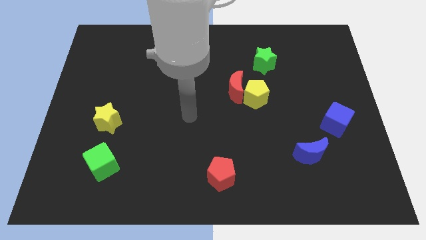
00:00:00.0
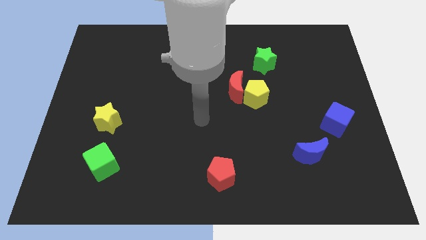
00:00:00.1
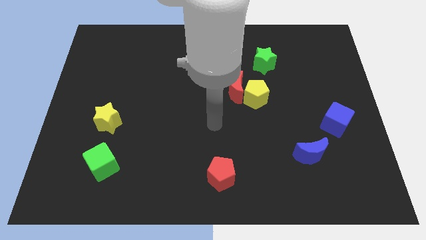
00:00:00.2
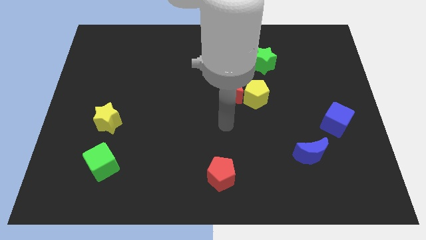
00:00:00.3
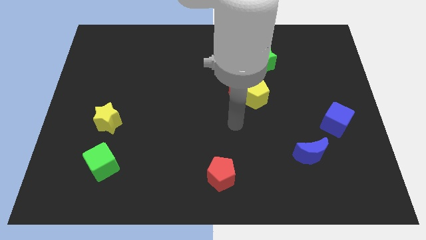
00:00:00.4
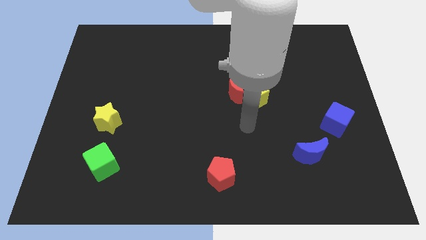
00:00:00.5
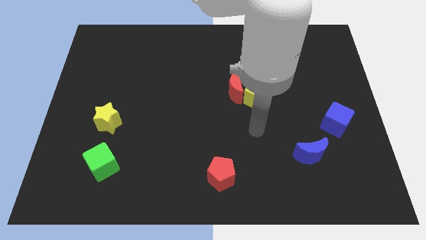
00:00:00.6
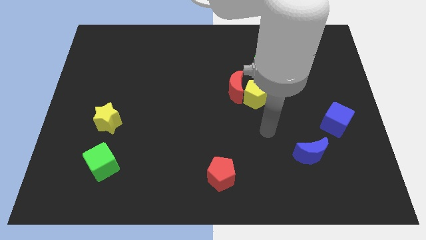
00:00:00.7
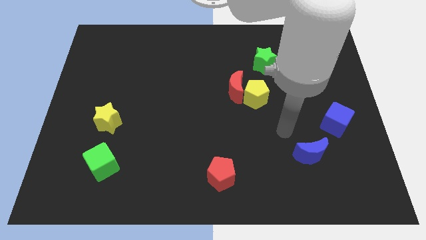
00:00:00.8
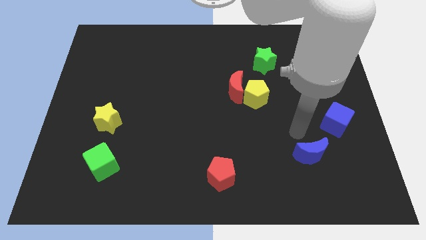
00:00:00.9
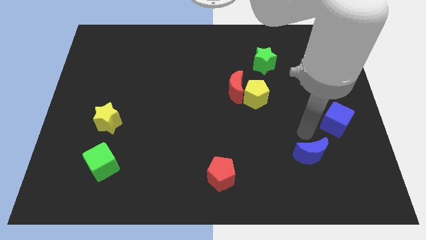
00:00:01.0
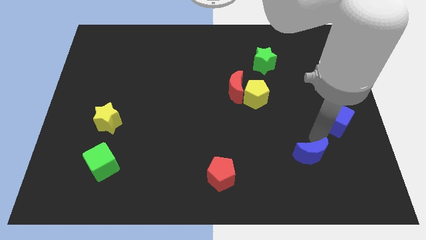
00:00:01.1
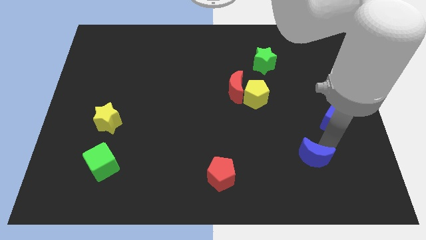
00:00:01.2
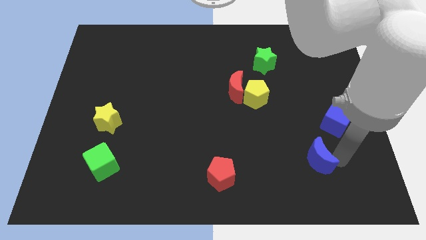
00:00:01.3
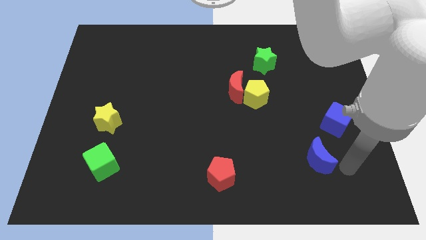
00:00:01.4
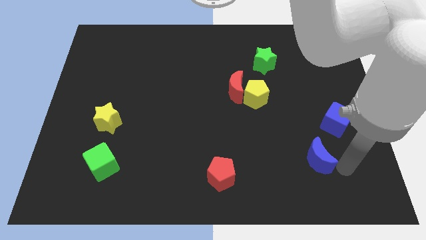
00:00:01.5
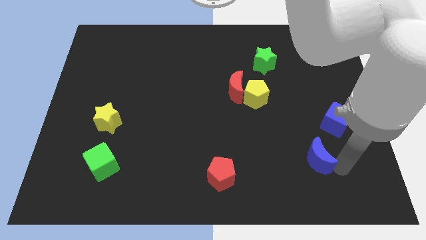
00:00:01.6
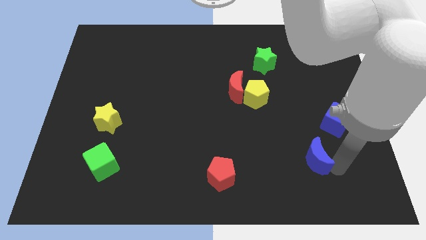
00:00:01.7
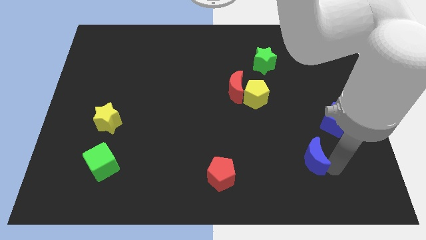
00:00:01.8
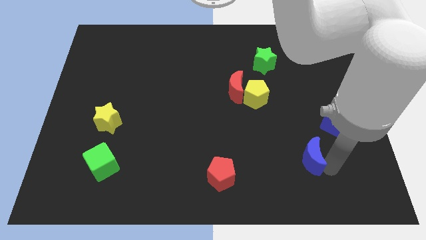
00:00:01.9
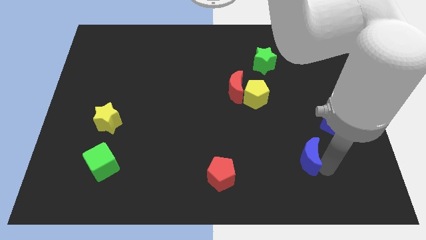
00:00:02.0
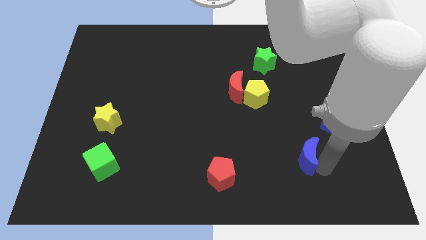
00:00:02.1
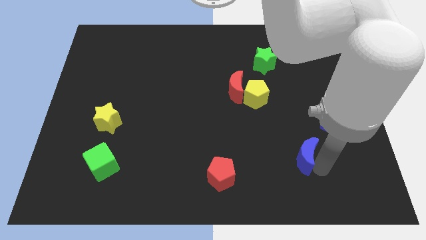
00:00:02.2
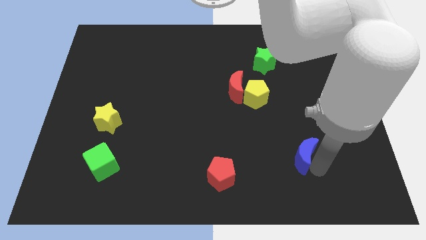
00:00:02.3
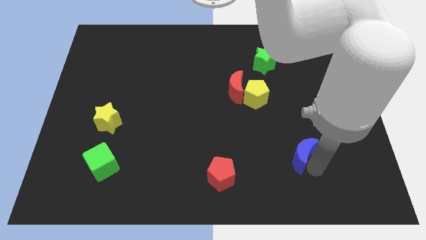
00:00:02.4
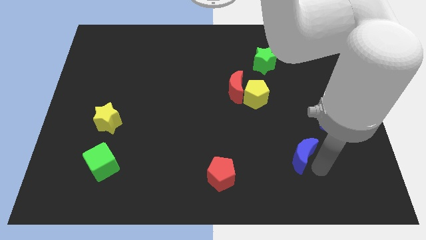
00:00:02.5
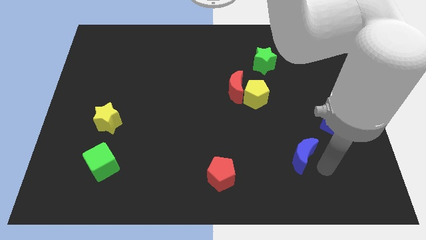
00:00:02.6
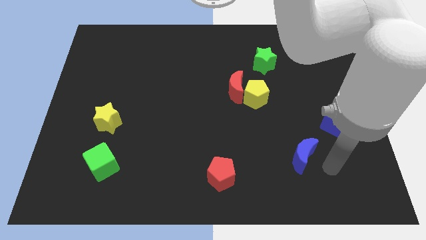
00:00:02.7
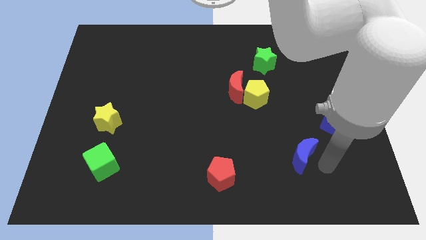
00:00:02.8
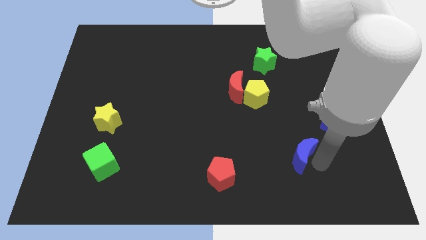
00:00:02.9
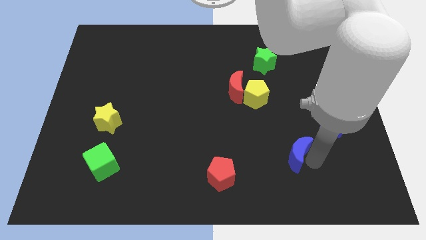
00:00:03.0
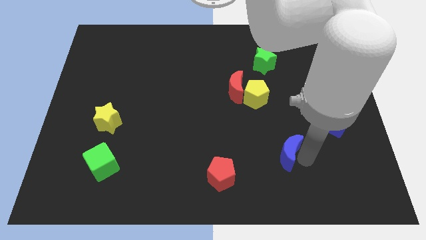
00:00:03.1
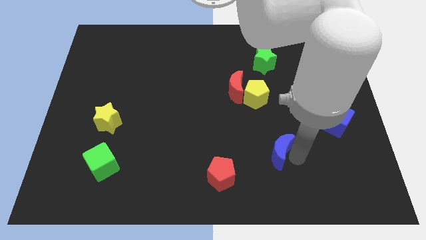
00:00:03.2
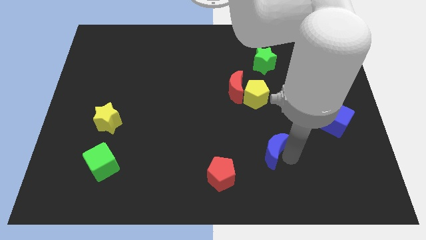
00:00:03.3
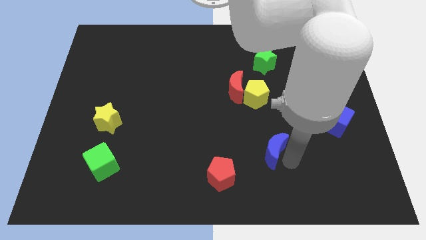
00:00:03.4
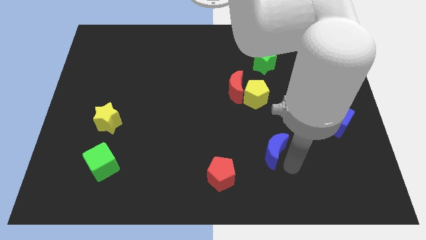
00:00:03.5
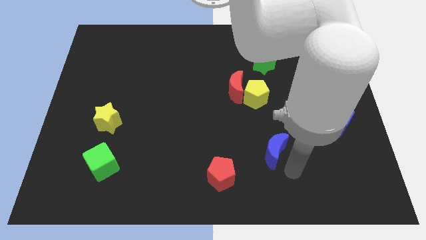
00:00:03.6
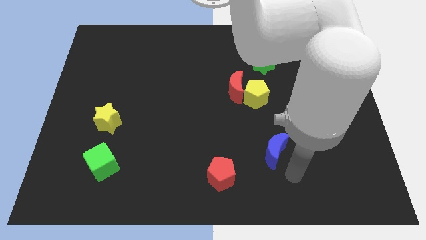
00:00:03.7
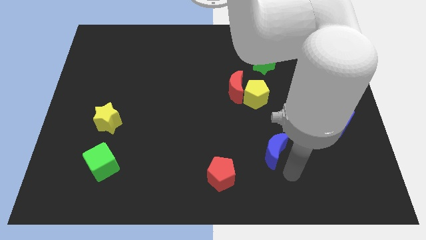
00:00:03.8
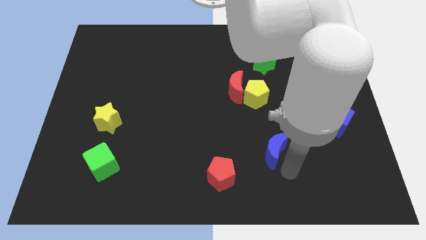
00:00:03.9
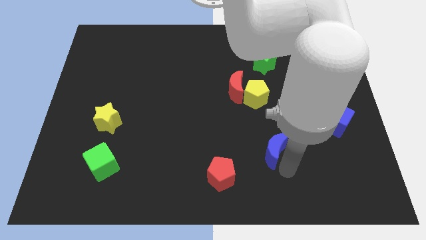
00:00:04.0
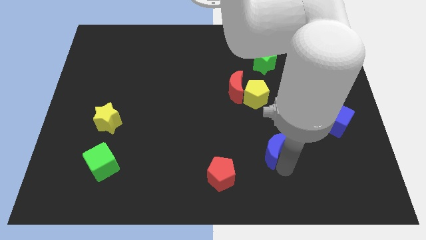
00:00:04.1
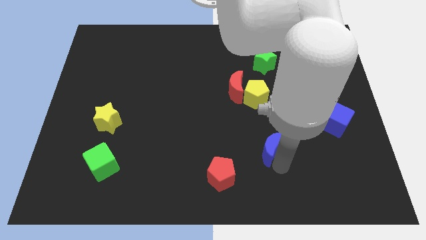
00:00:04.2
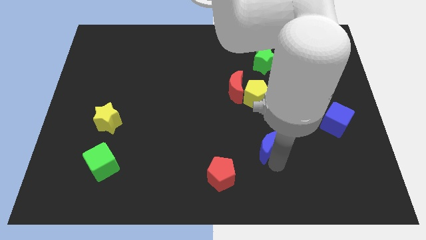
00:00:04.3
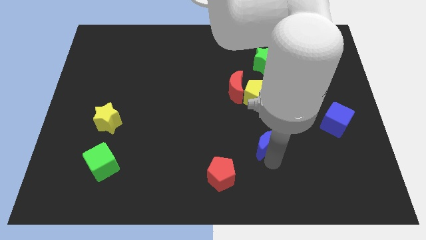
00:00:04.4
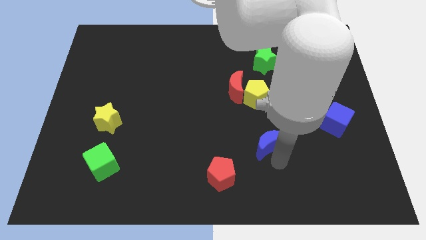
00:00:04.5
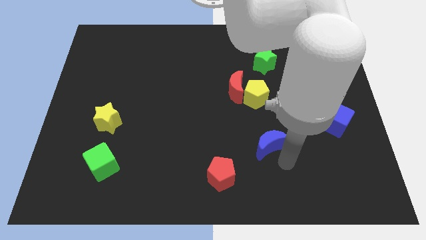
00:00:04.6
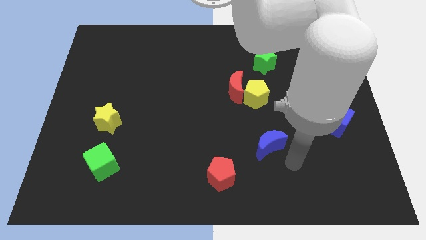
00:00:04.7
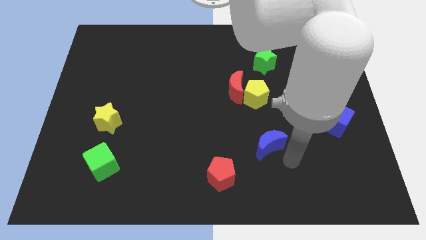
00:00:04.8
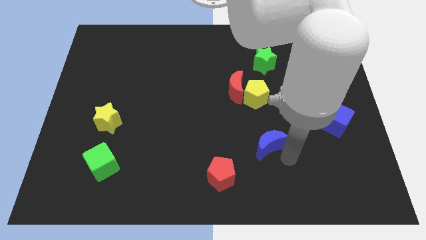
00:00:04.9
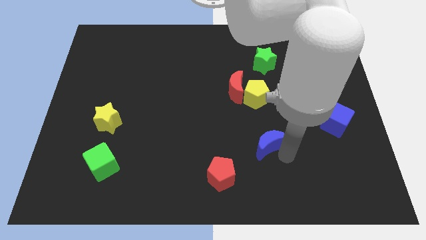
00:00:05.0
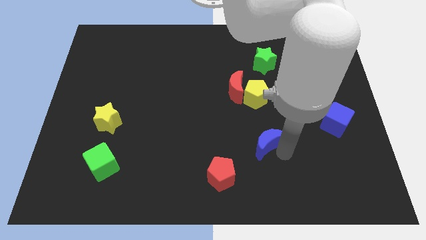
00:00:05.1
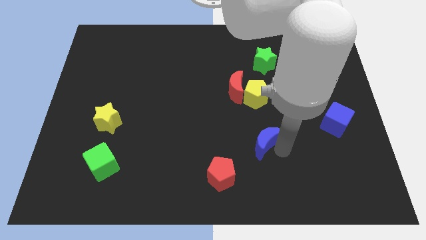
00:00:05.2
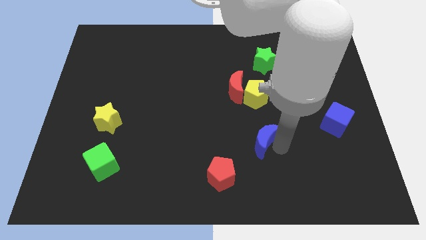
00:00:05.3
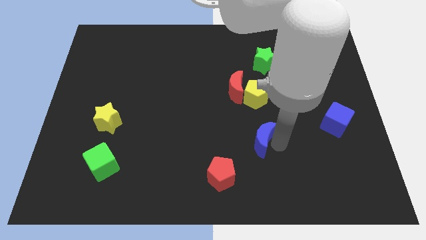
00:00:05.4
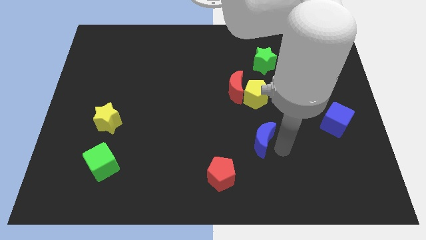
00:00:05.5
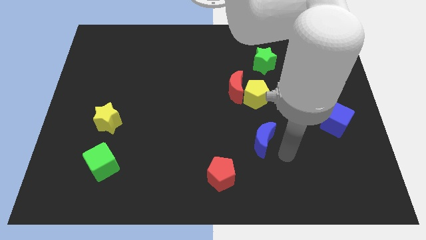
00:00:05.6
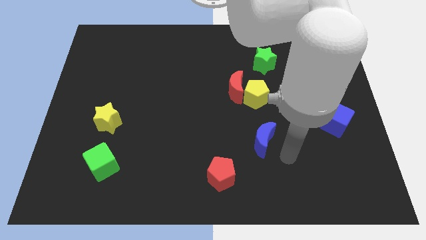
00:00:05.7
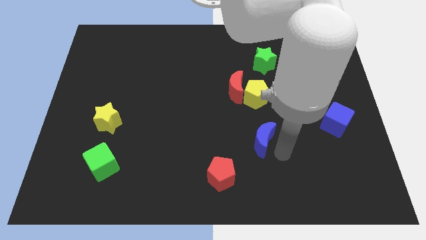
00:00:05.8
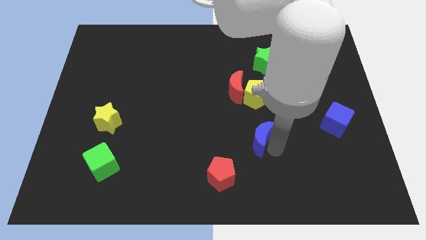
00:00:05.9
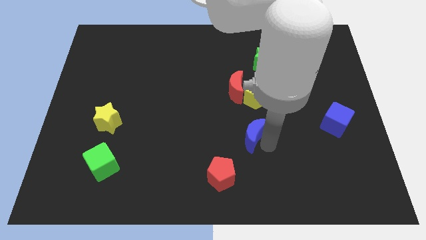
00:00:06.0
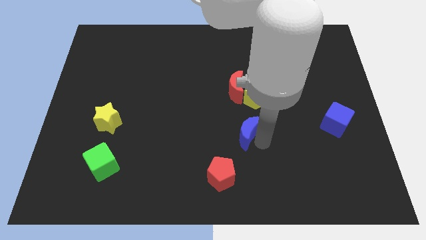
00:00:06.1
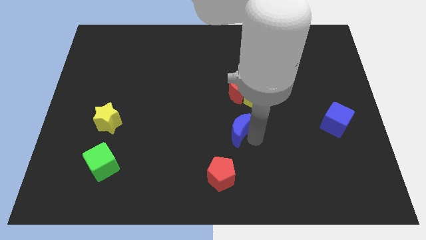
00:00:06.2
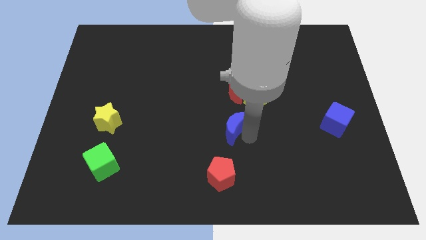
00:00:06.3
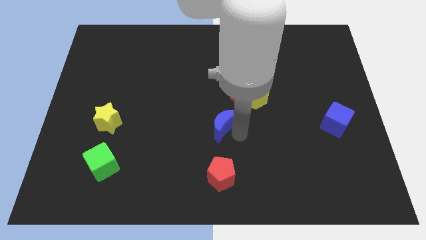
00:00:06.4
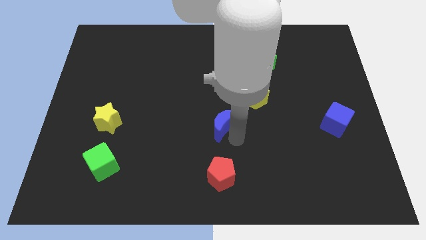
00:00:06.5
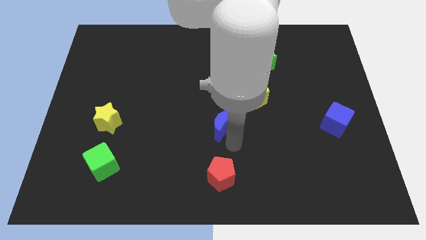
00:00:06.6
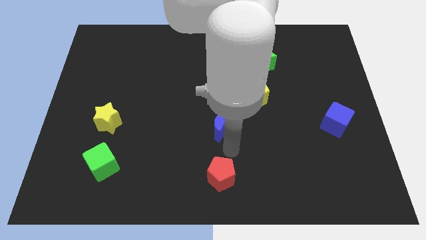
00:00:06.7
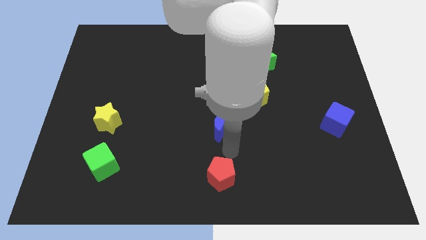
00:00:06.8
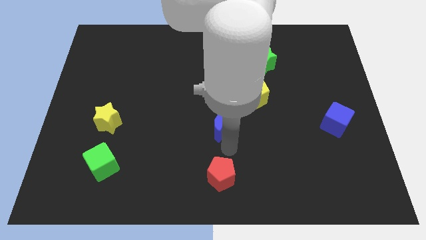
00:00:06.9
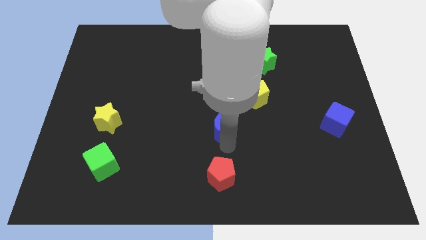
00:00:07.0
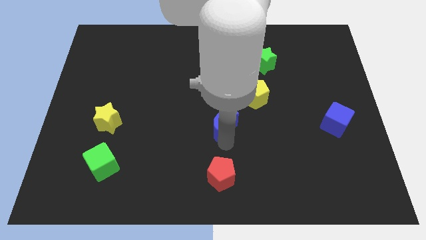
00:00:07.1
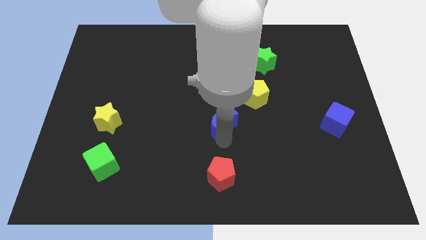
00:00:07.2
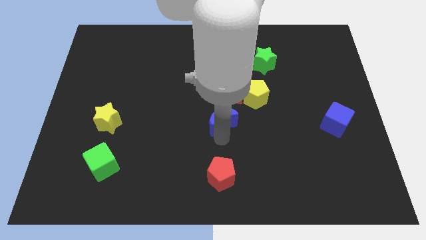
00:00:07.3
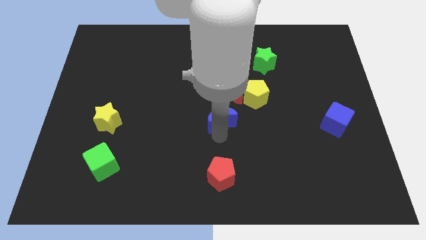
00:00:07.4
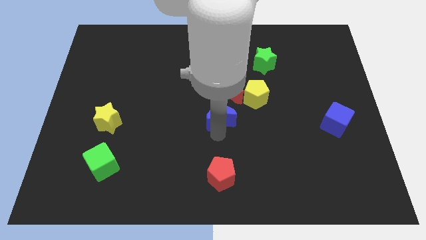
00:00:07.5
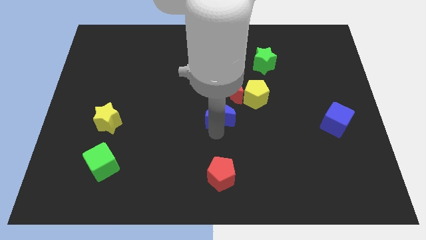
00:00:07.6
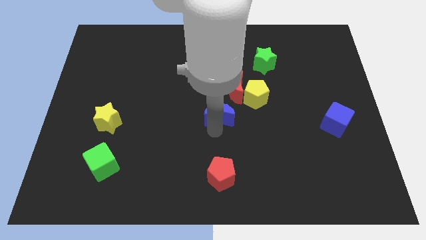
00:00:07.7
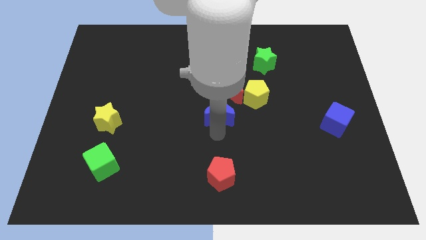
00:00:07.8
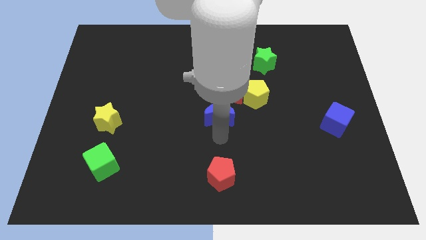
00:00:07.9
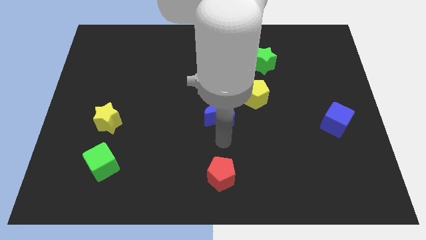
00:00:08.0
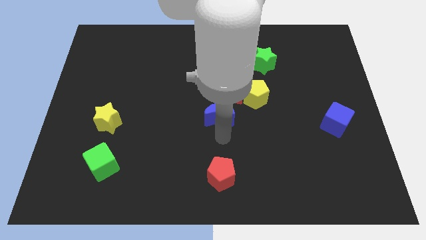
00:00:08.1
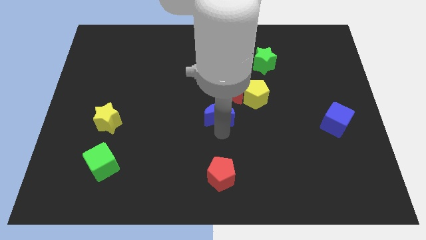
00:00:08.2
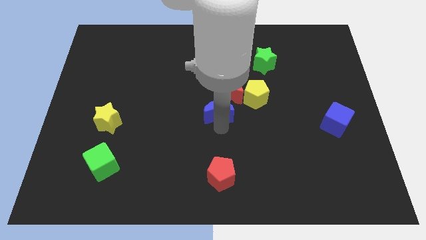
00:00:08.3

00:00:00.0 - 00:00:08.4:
move the blue moon up and then left
